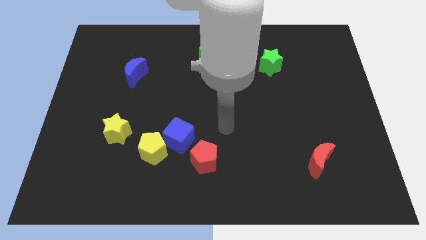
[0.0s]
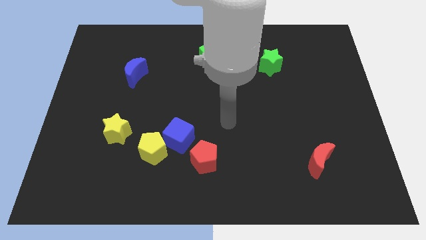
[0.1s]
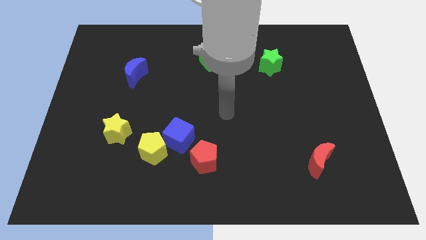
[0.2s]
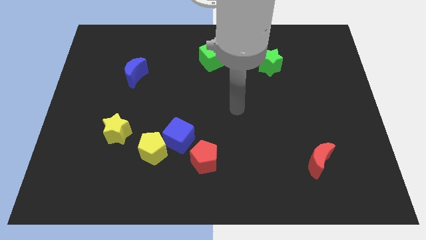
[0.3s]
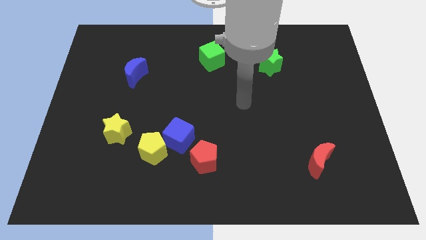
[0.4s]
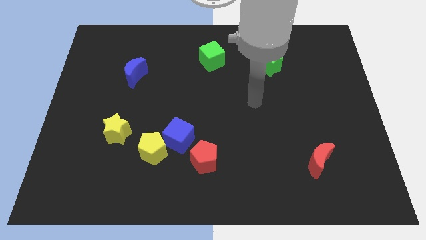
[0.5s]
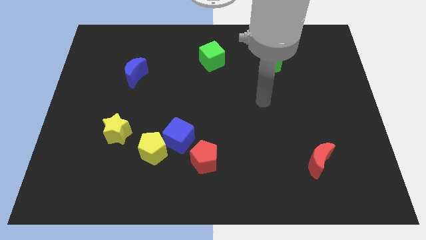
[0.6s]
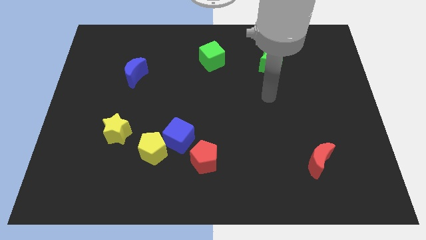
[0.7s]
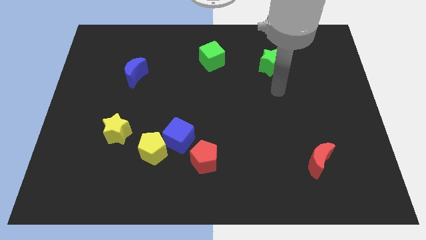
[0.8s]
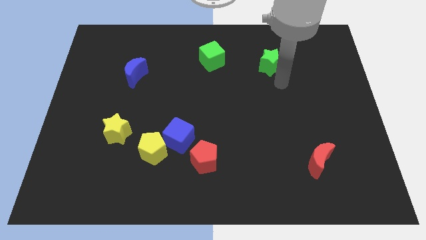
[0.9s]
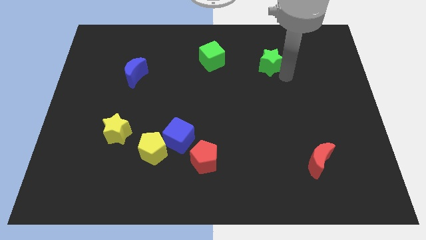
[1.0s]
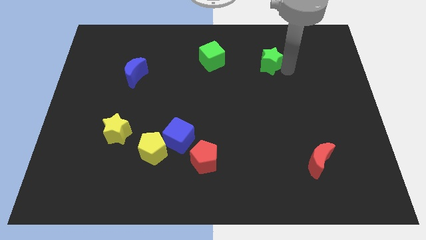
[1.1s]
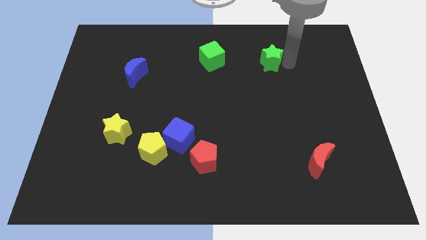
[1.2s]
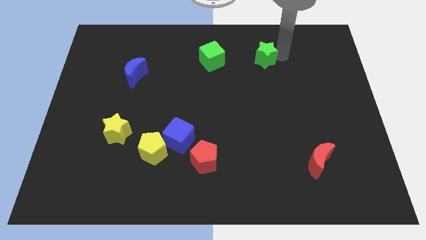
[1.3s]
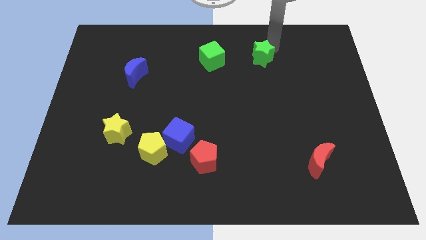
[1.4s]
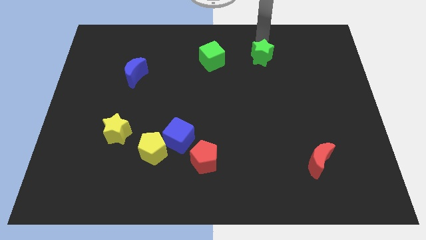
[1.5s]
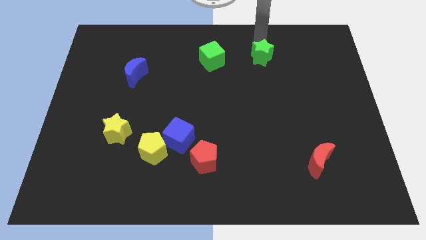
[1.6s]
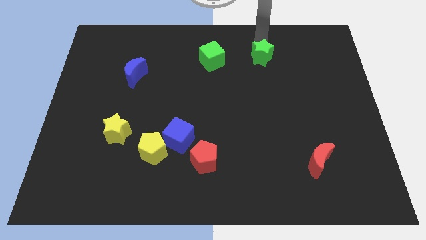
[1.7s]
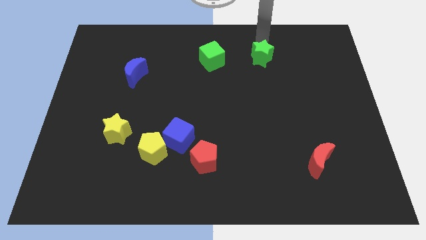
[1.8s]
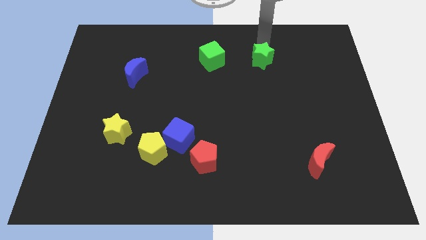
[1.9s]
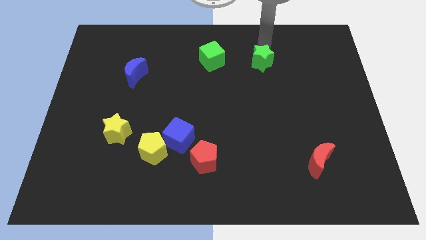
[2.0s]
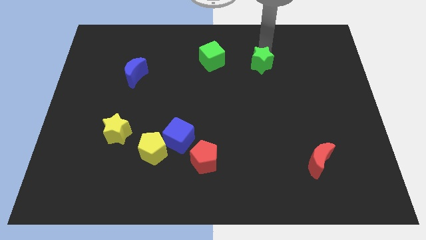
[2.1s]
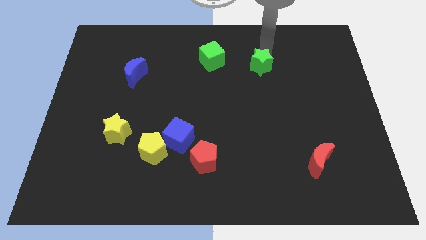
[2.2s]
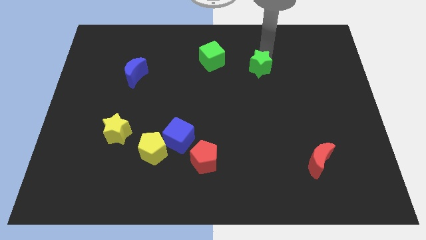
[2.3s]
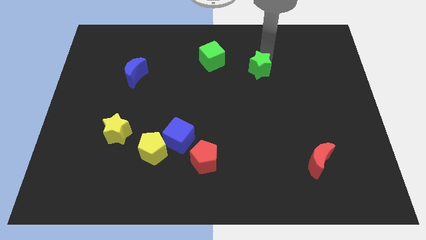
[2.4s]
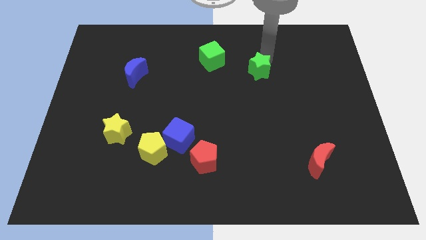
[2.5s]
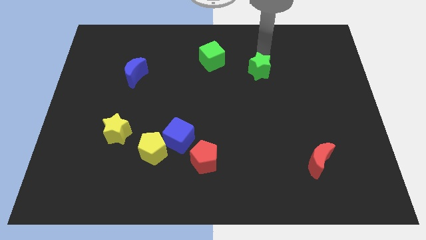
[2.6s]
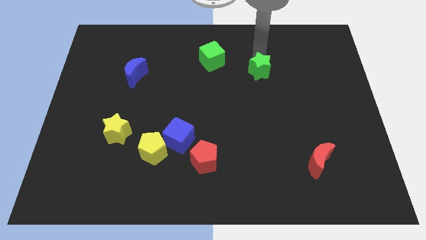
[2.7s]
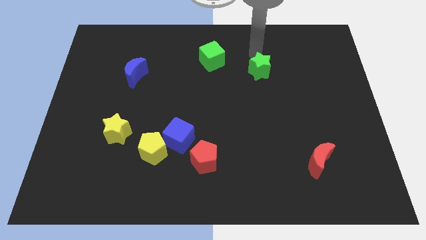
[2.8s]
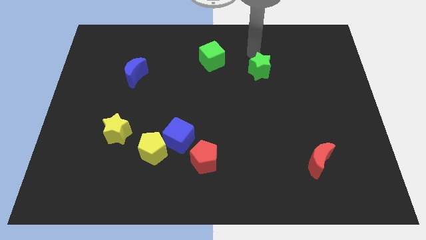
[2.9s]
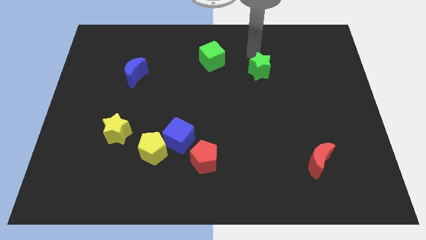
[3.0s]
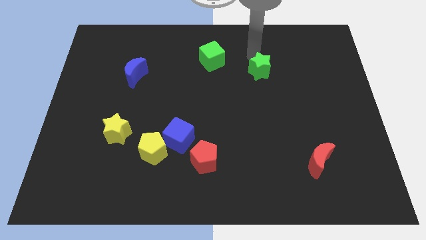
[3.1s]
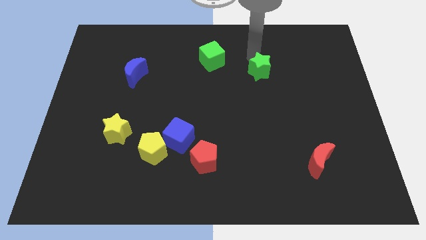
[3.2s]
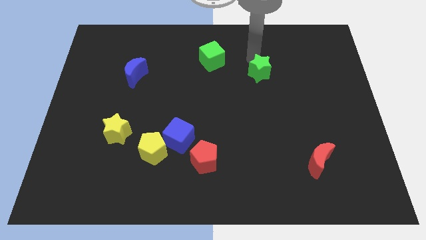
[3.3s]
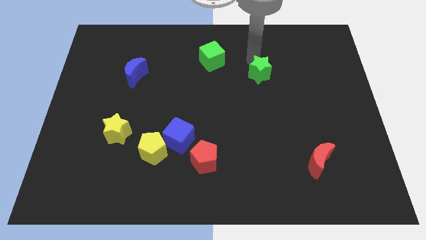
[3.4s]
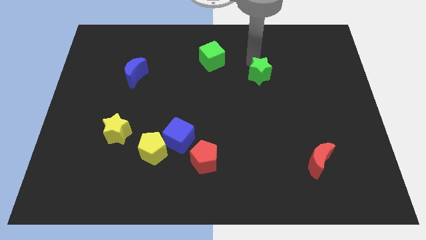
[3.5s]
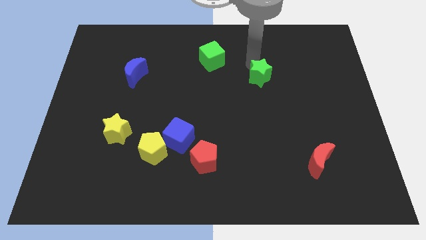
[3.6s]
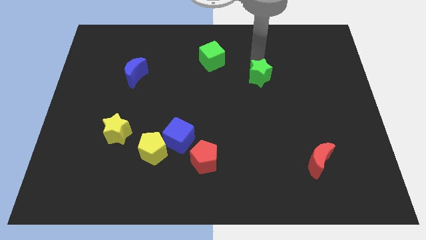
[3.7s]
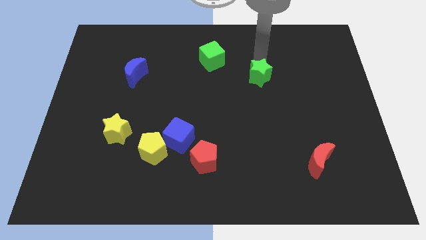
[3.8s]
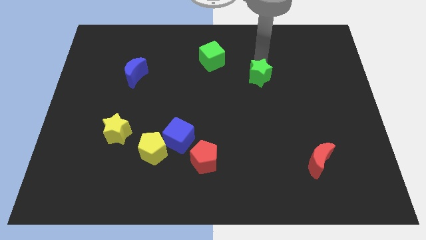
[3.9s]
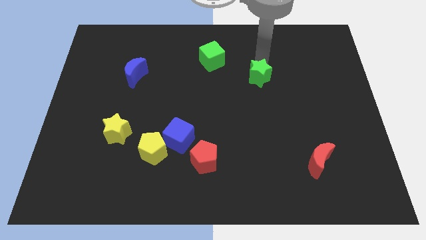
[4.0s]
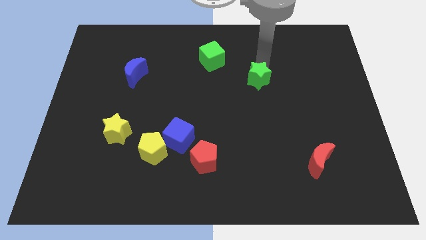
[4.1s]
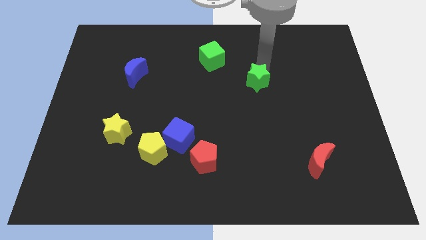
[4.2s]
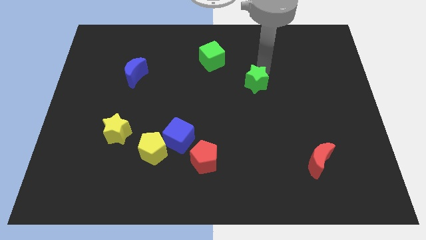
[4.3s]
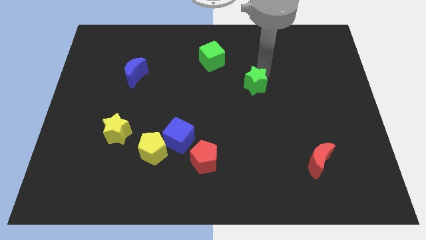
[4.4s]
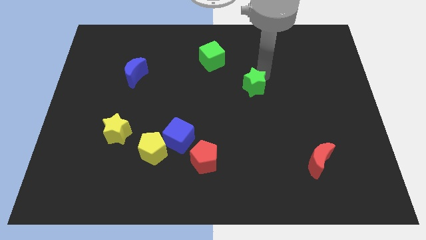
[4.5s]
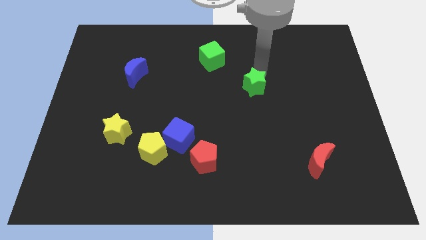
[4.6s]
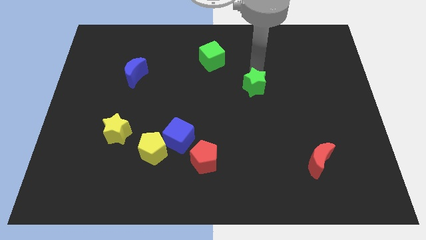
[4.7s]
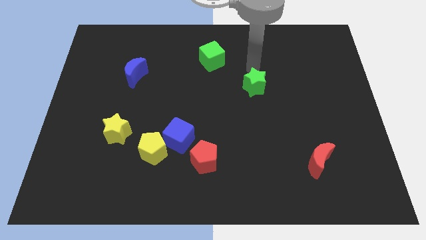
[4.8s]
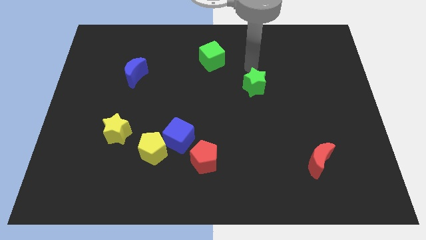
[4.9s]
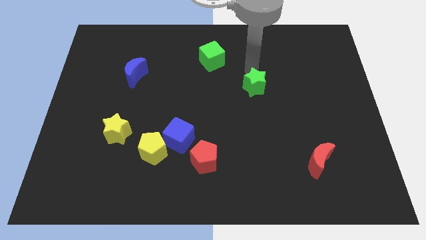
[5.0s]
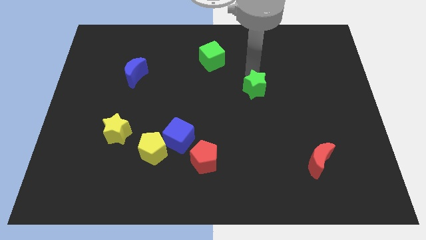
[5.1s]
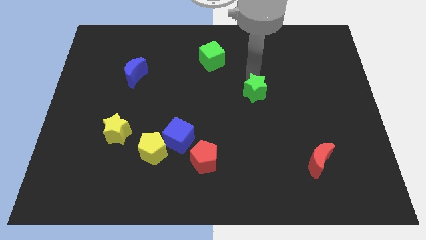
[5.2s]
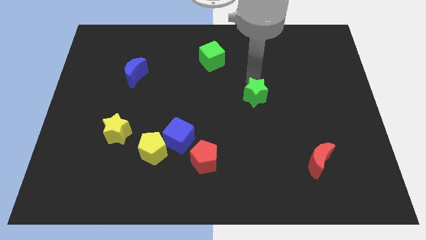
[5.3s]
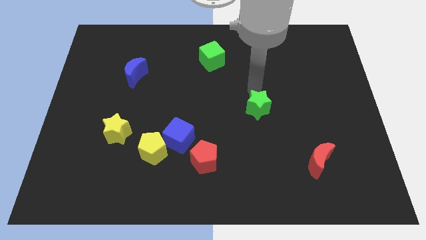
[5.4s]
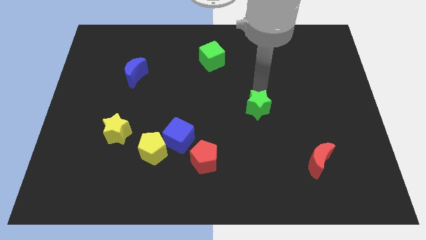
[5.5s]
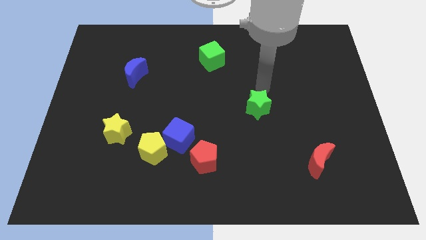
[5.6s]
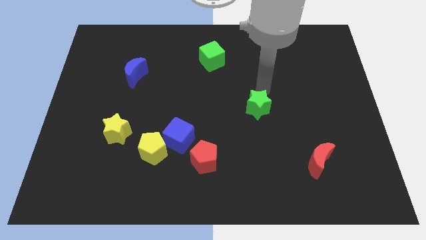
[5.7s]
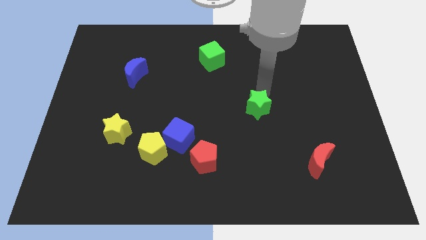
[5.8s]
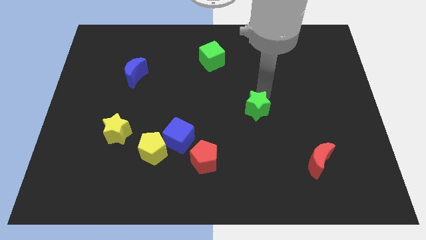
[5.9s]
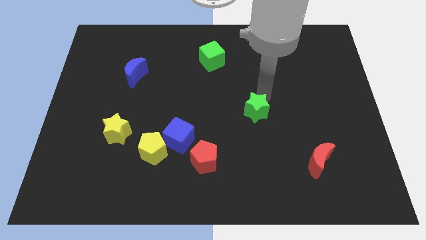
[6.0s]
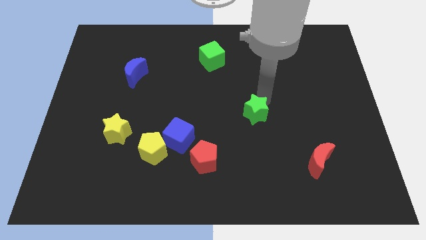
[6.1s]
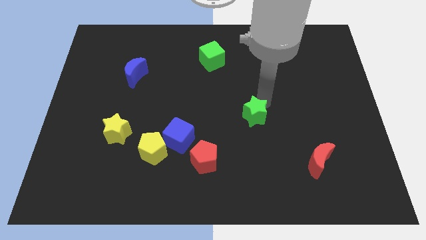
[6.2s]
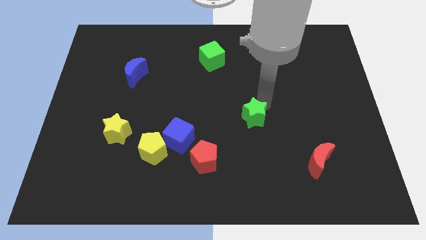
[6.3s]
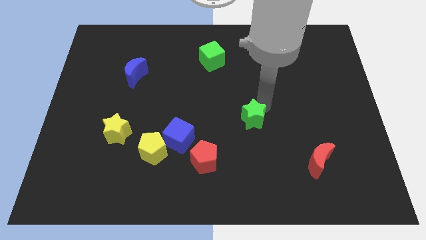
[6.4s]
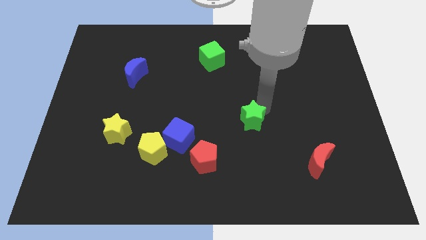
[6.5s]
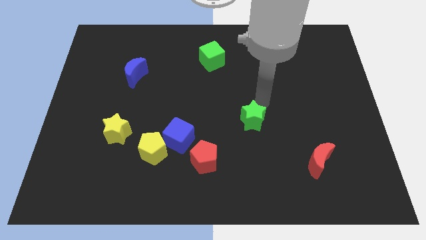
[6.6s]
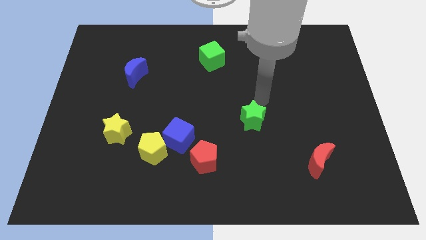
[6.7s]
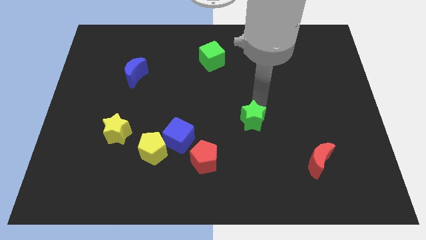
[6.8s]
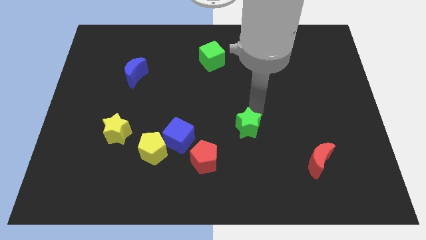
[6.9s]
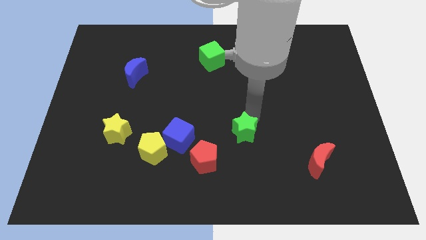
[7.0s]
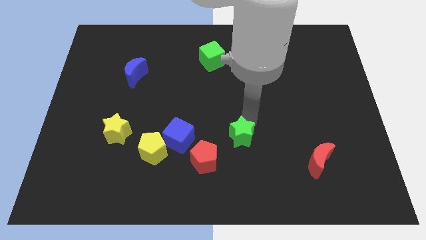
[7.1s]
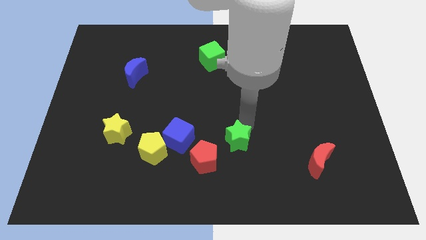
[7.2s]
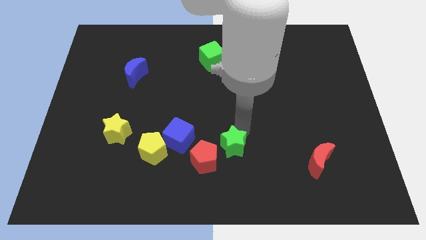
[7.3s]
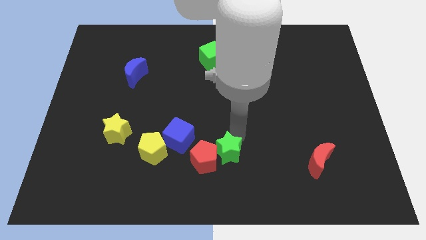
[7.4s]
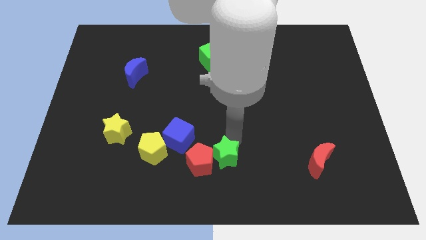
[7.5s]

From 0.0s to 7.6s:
push the green star to the bottom side
